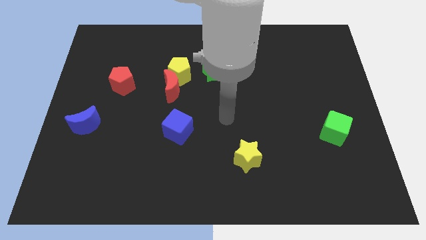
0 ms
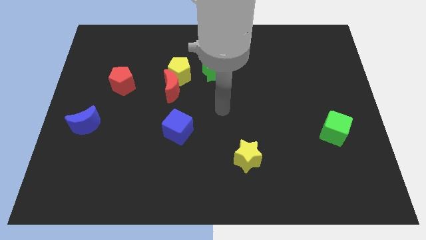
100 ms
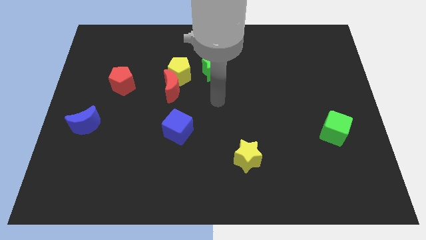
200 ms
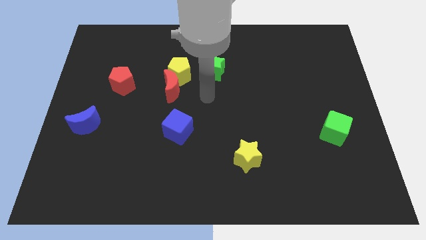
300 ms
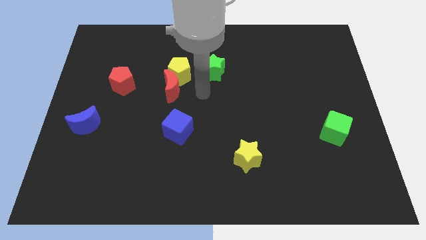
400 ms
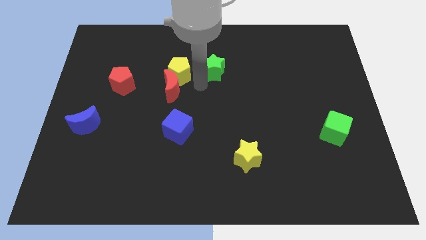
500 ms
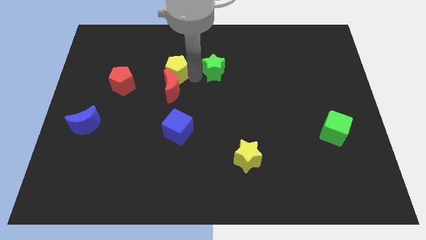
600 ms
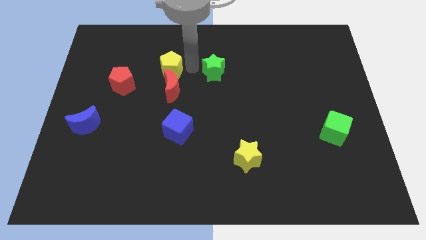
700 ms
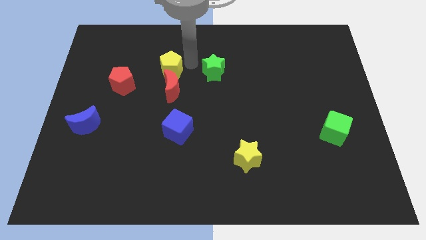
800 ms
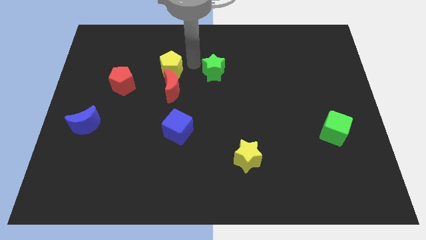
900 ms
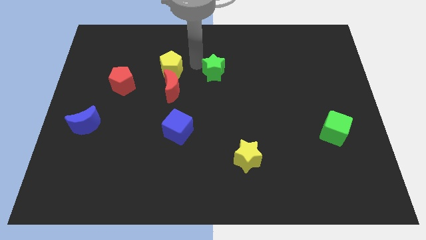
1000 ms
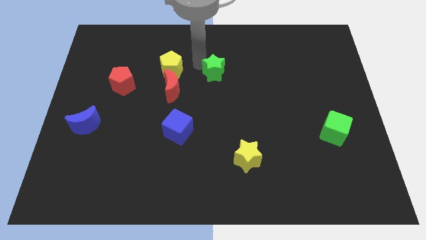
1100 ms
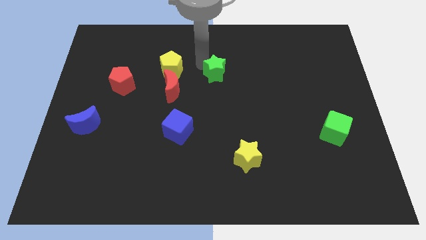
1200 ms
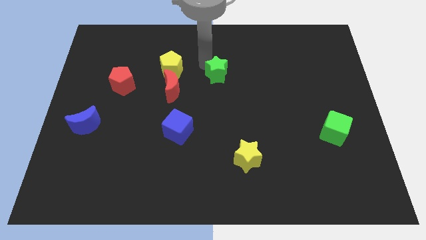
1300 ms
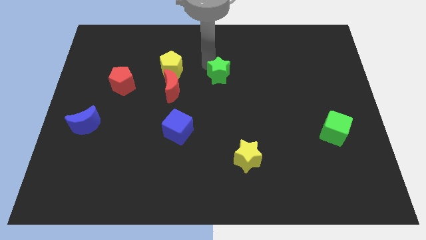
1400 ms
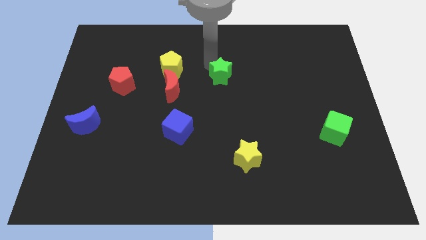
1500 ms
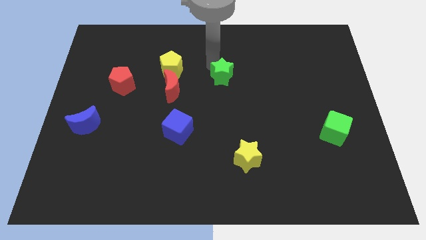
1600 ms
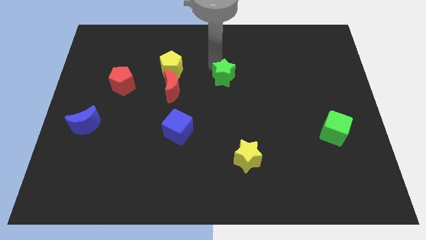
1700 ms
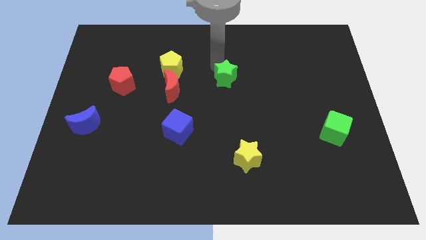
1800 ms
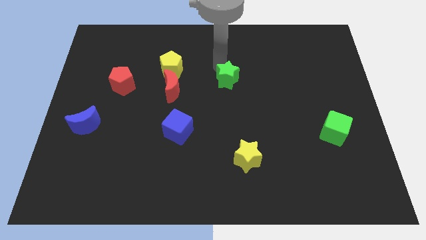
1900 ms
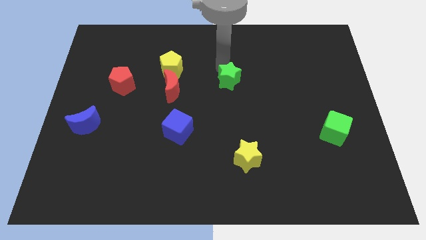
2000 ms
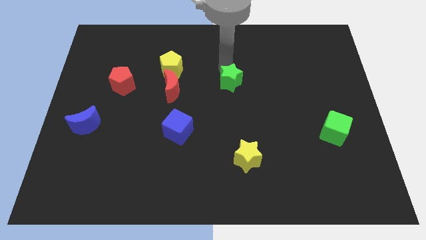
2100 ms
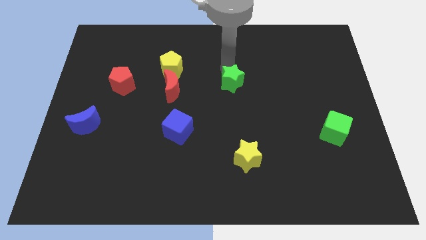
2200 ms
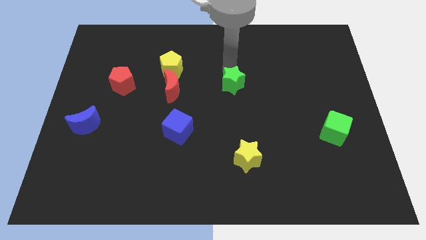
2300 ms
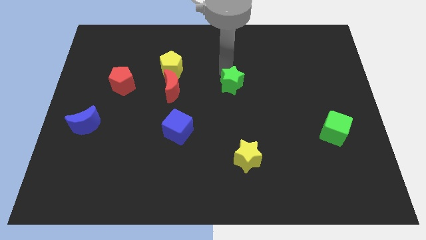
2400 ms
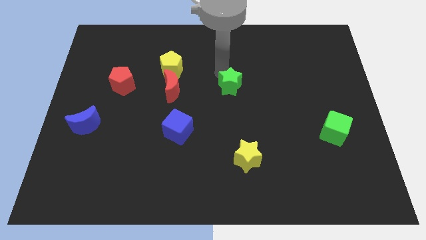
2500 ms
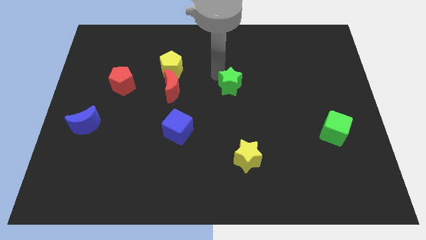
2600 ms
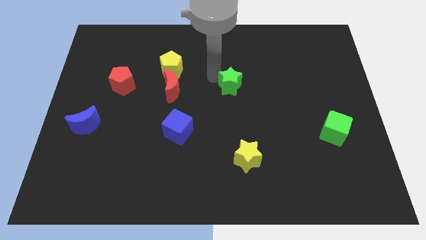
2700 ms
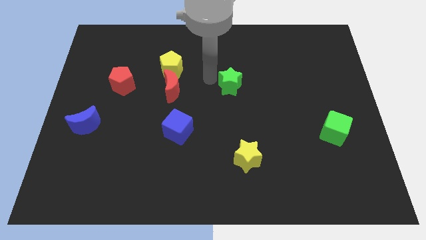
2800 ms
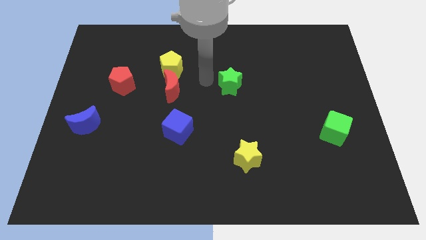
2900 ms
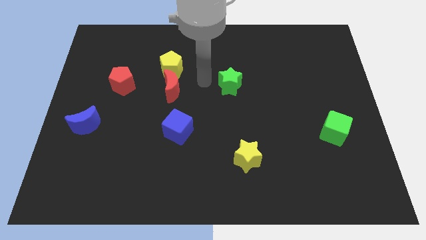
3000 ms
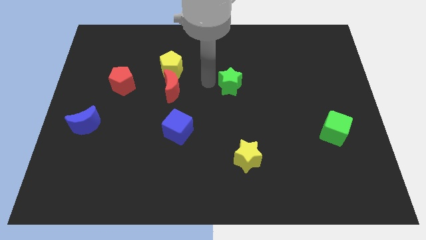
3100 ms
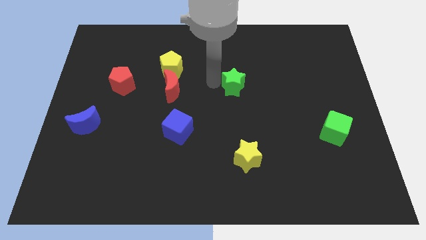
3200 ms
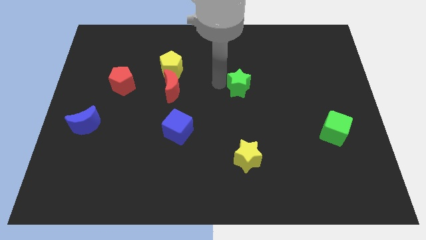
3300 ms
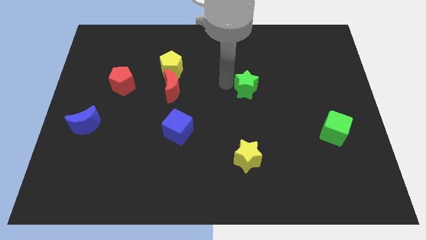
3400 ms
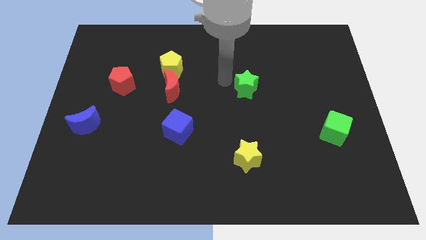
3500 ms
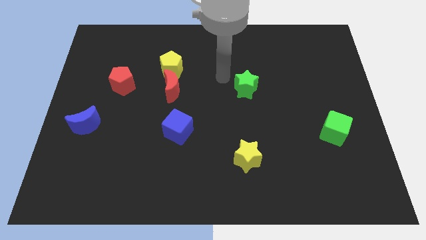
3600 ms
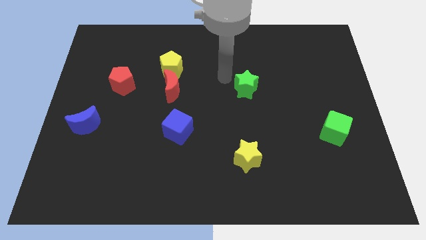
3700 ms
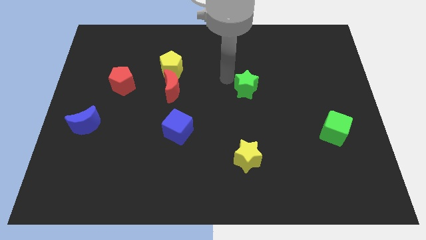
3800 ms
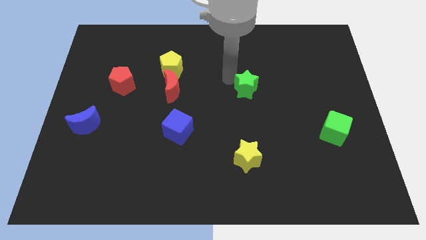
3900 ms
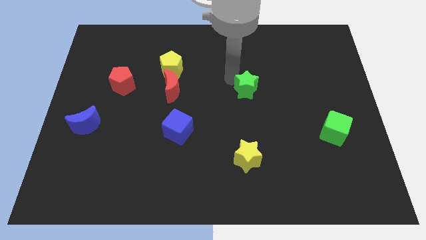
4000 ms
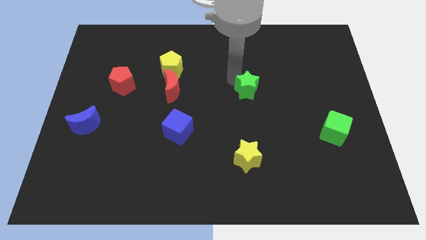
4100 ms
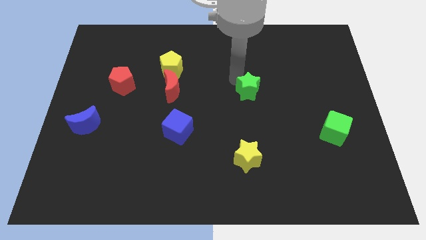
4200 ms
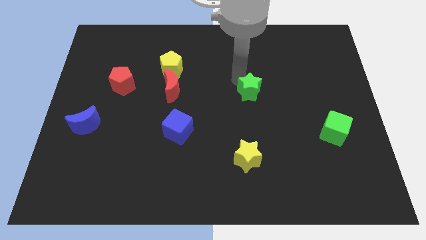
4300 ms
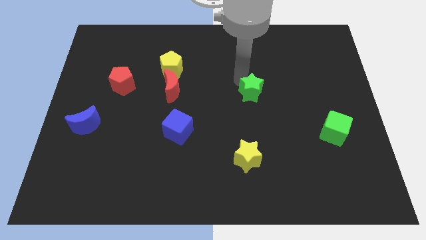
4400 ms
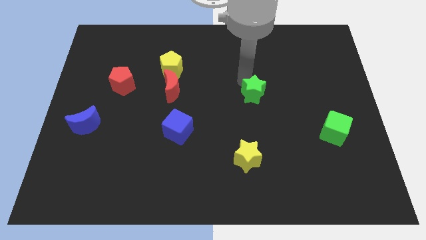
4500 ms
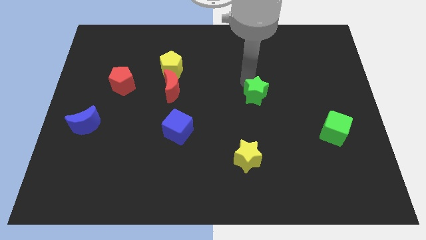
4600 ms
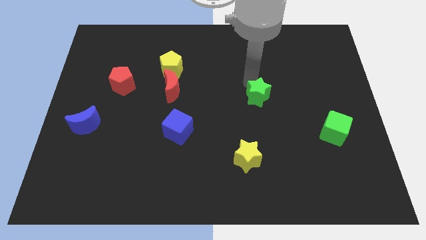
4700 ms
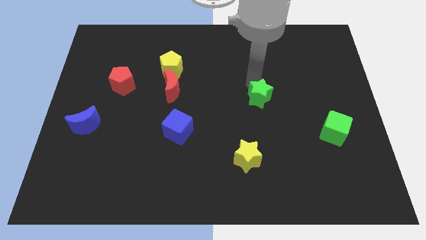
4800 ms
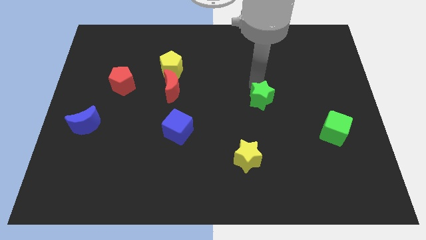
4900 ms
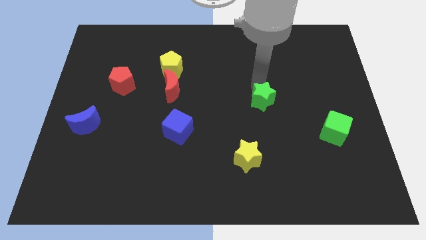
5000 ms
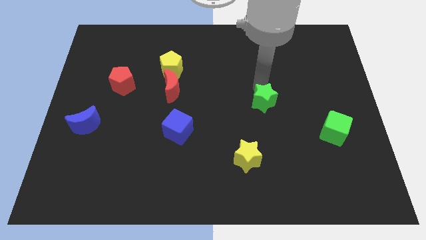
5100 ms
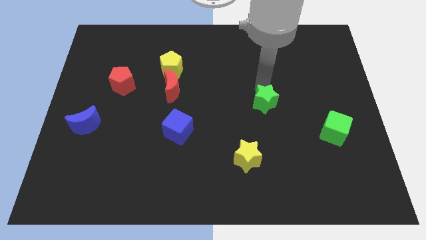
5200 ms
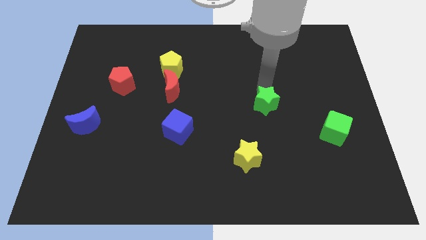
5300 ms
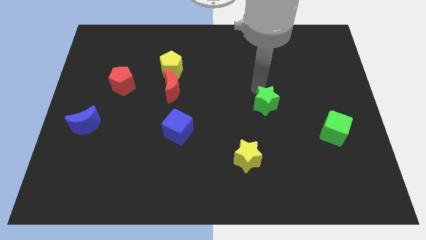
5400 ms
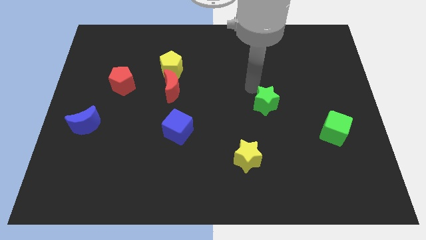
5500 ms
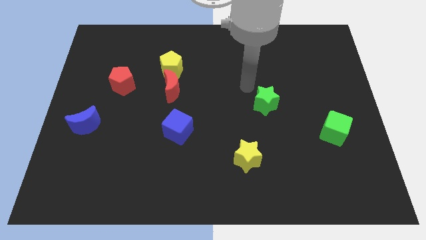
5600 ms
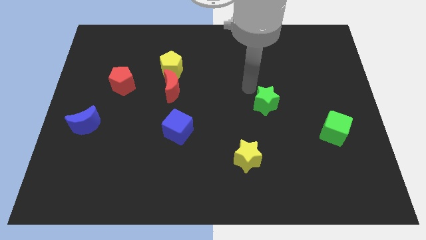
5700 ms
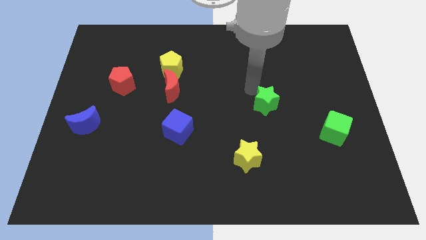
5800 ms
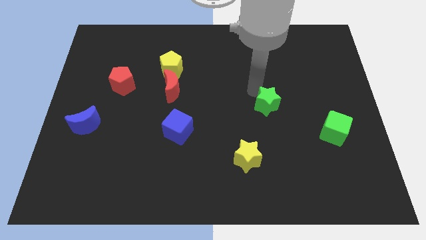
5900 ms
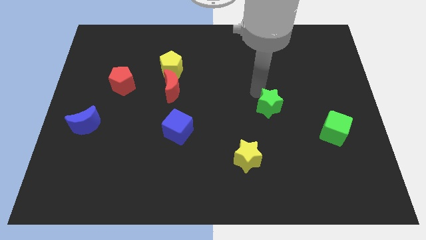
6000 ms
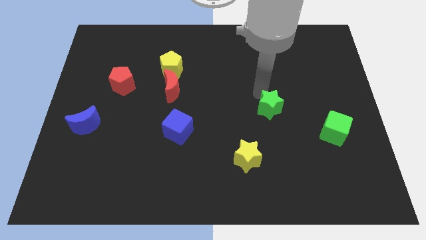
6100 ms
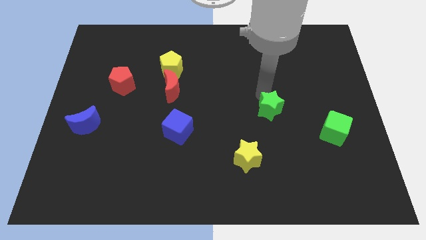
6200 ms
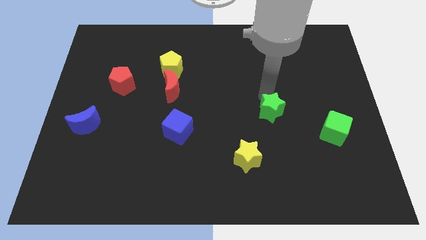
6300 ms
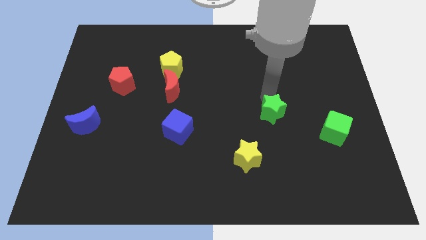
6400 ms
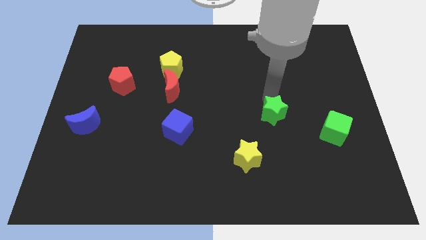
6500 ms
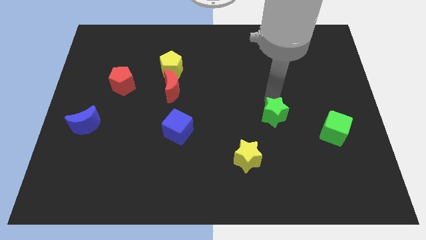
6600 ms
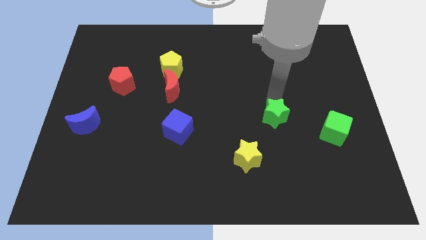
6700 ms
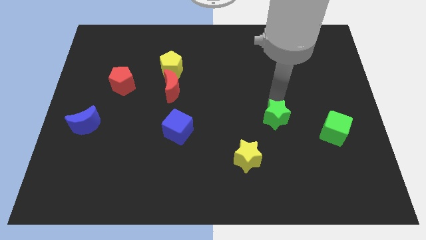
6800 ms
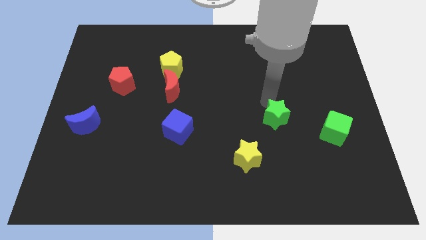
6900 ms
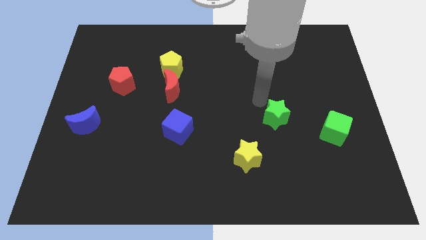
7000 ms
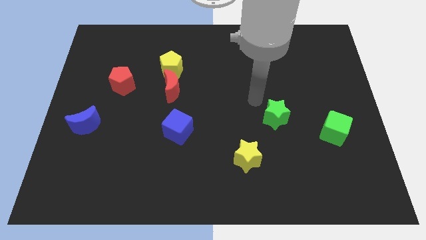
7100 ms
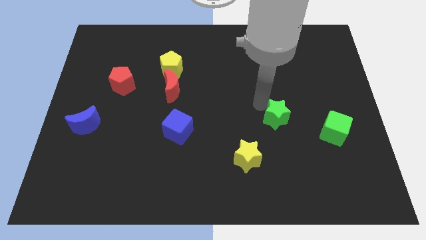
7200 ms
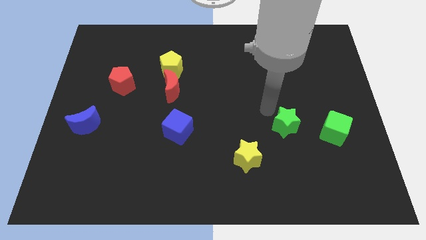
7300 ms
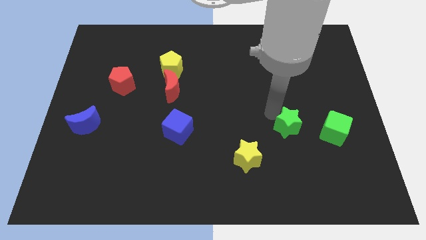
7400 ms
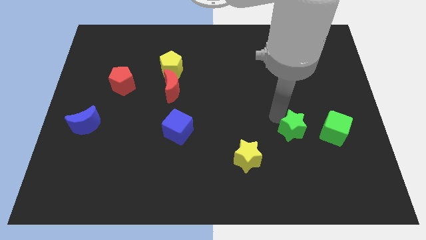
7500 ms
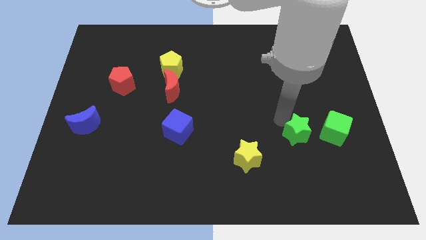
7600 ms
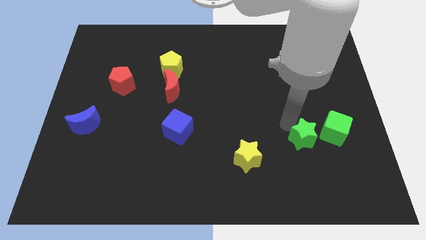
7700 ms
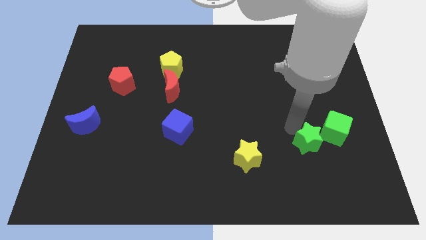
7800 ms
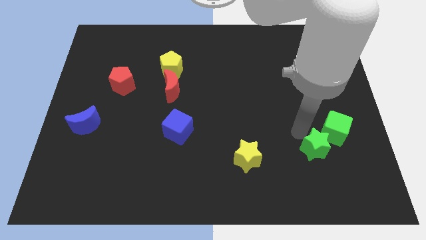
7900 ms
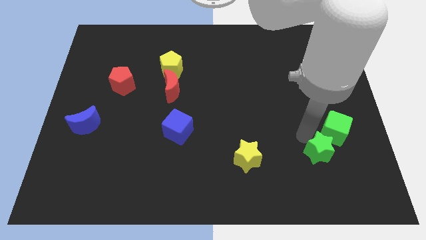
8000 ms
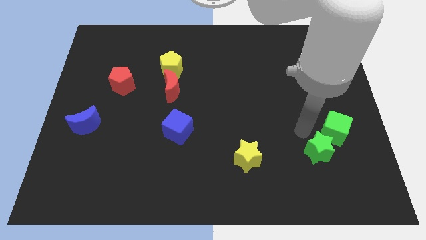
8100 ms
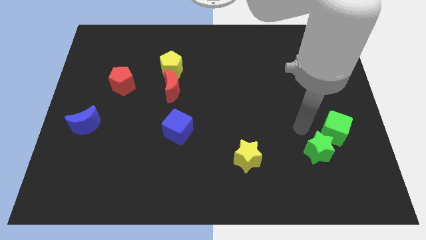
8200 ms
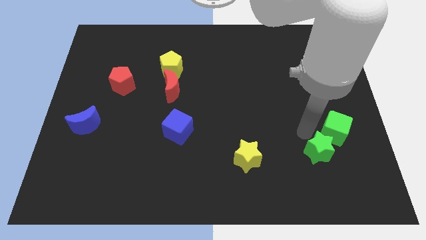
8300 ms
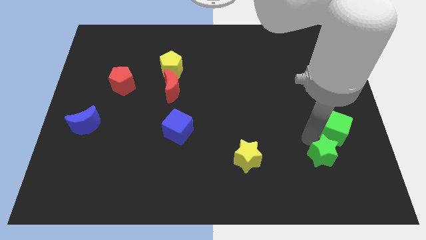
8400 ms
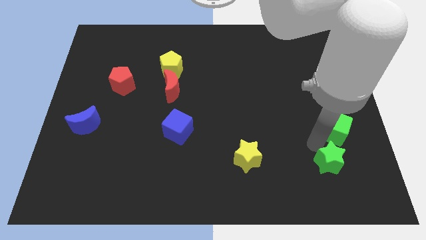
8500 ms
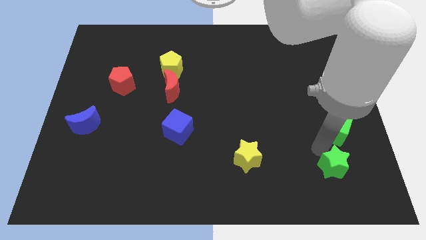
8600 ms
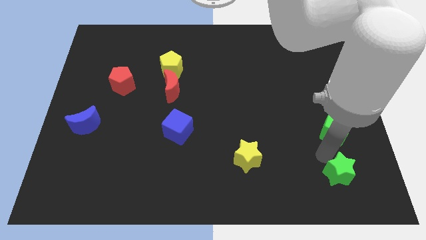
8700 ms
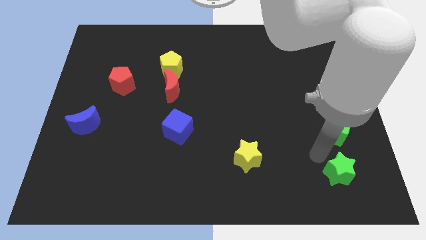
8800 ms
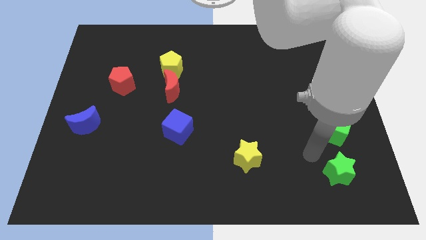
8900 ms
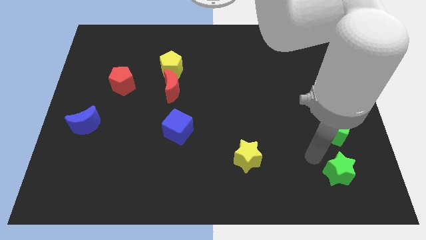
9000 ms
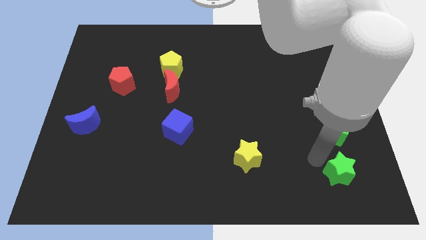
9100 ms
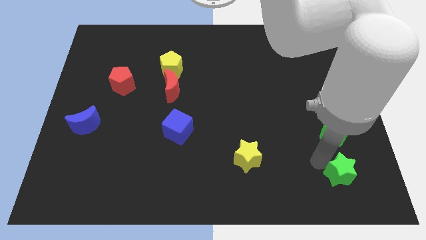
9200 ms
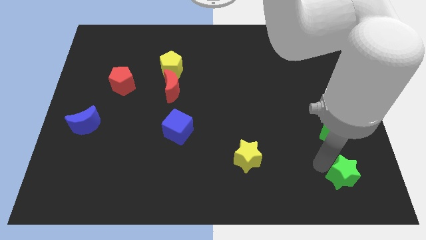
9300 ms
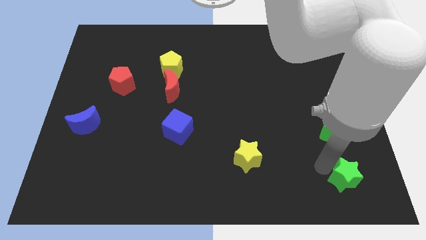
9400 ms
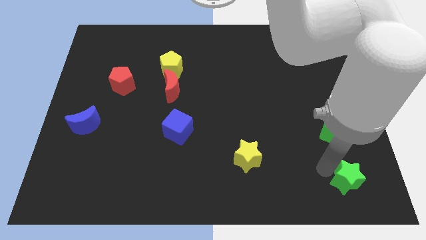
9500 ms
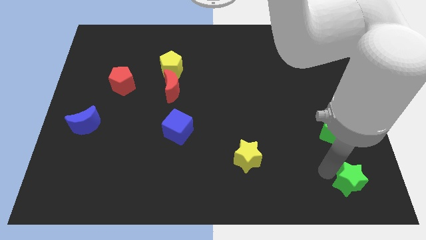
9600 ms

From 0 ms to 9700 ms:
put the green star to the bottom right
